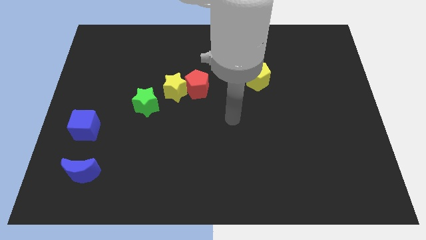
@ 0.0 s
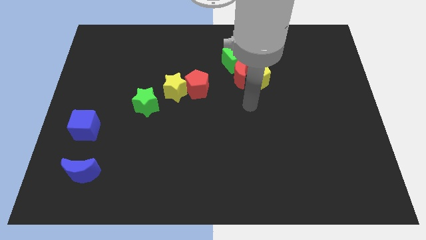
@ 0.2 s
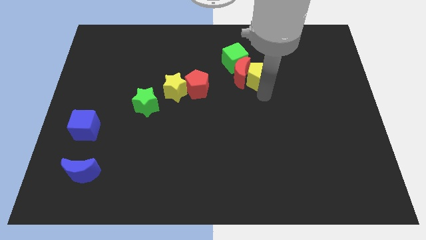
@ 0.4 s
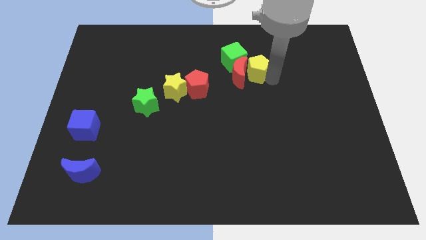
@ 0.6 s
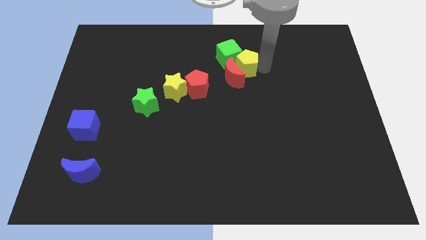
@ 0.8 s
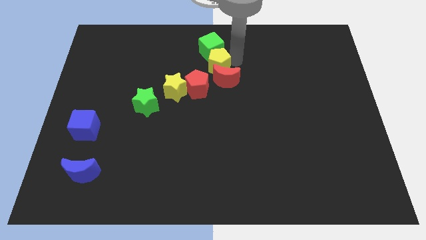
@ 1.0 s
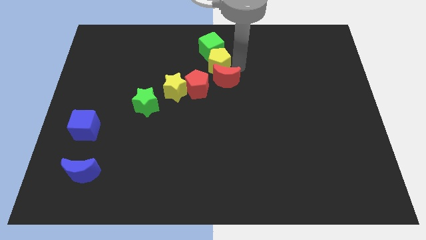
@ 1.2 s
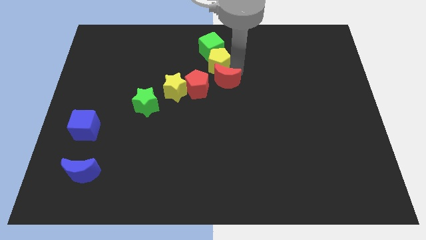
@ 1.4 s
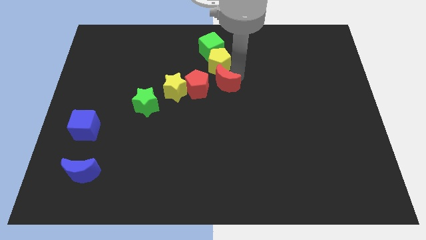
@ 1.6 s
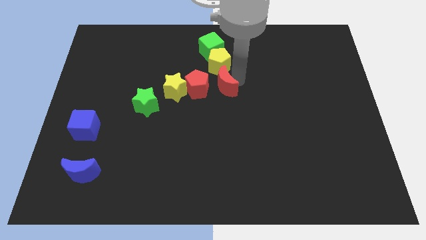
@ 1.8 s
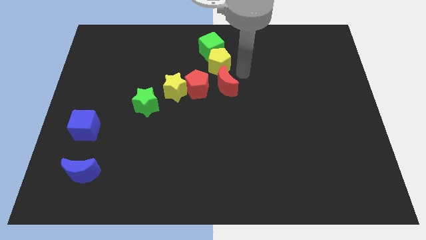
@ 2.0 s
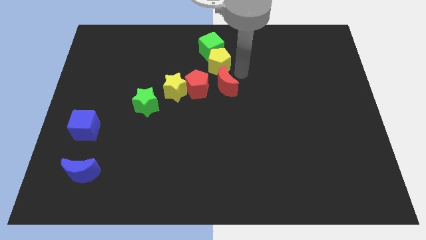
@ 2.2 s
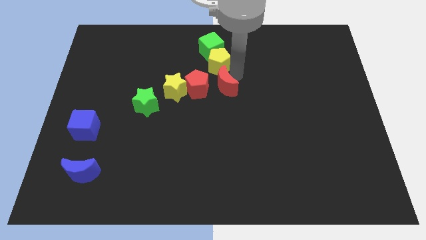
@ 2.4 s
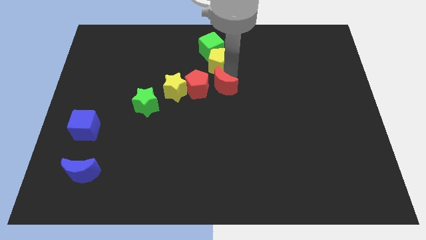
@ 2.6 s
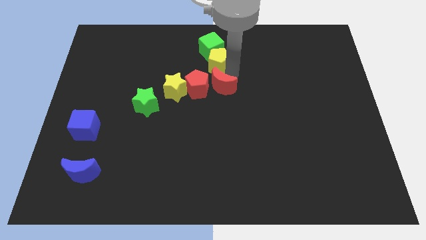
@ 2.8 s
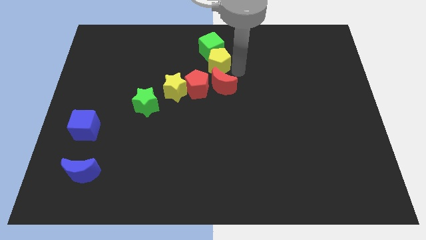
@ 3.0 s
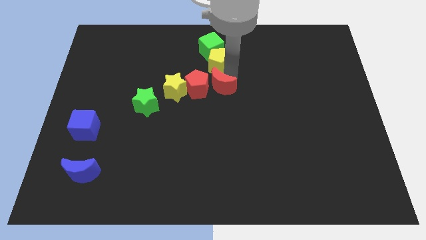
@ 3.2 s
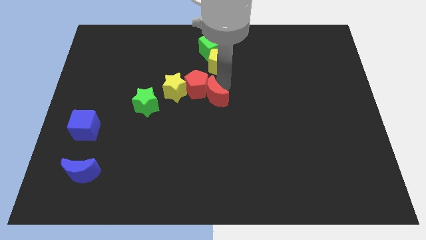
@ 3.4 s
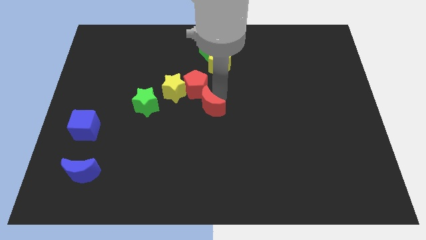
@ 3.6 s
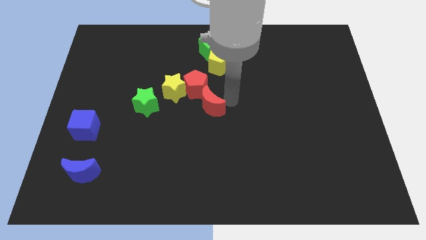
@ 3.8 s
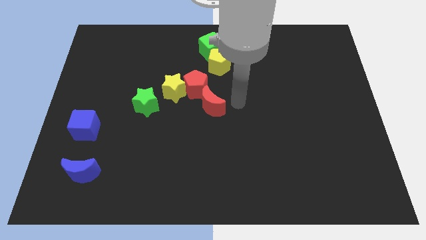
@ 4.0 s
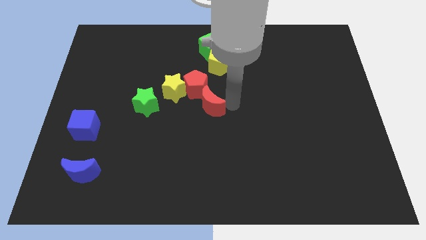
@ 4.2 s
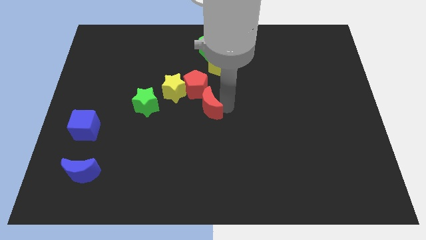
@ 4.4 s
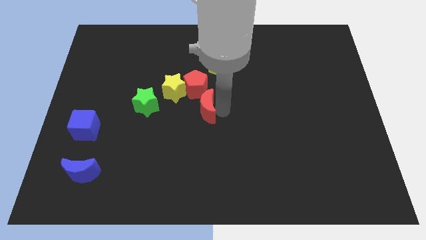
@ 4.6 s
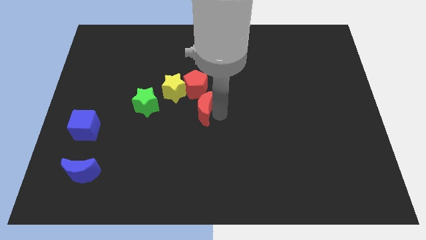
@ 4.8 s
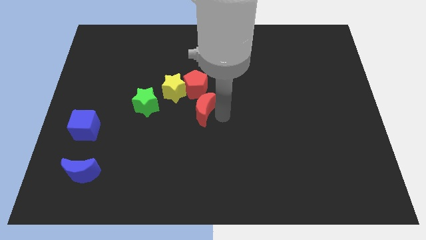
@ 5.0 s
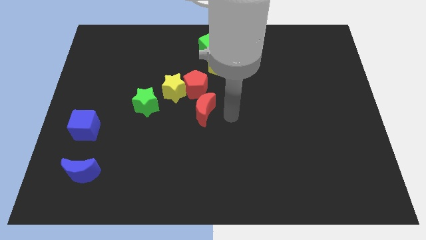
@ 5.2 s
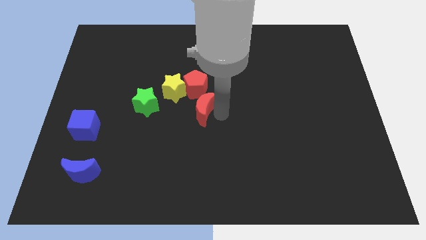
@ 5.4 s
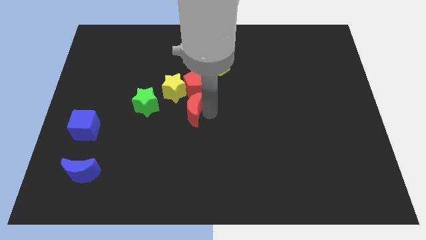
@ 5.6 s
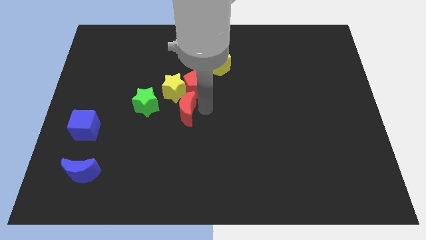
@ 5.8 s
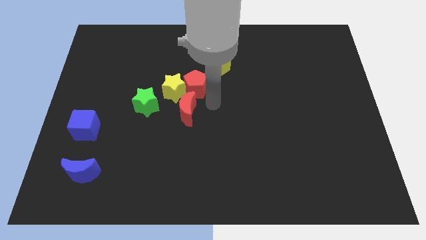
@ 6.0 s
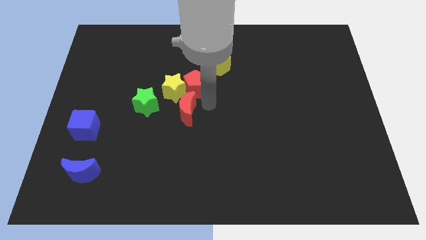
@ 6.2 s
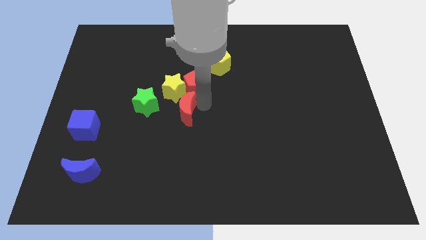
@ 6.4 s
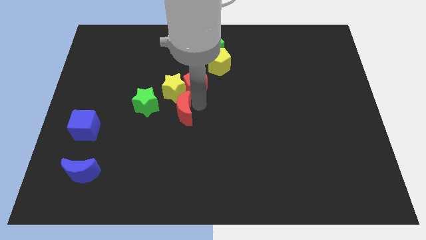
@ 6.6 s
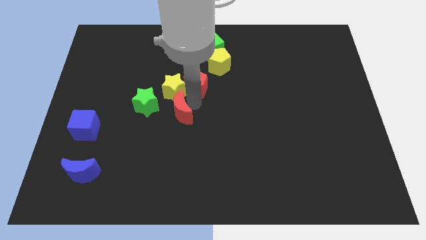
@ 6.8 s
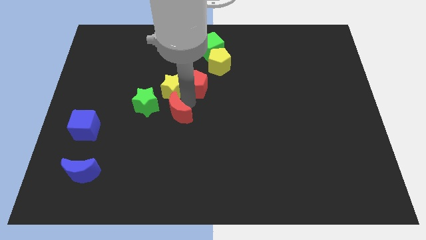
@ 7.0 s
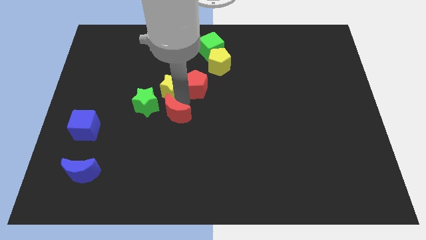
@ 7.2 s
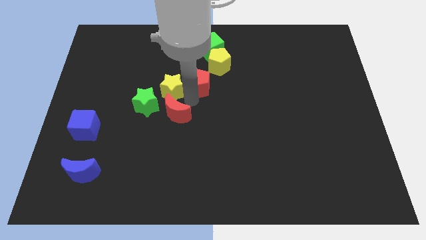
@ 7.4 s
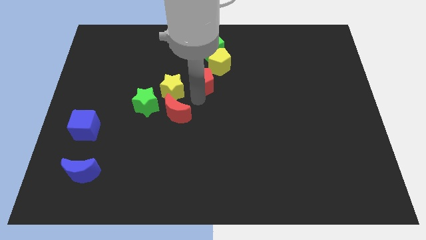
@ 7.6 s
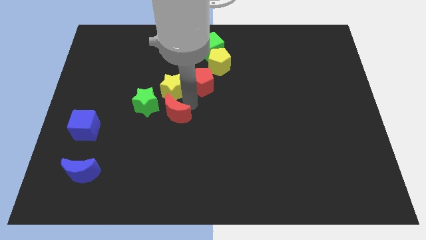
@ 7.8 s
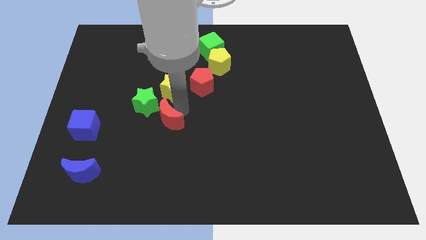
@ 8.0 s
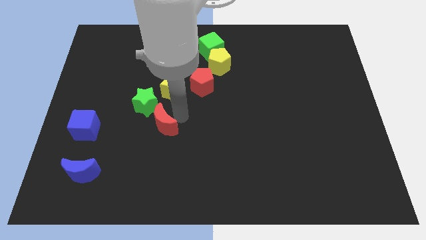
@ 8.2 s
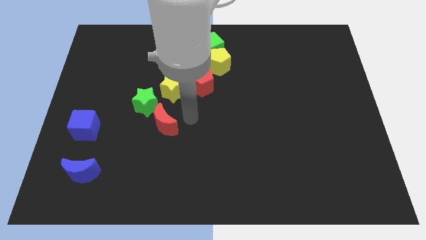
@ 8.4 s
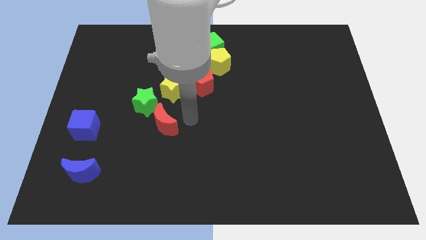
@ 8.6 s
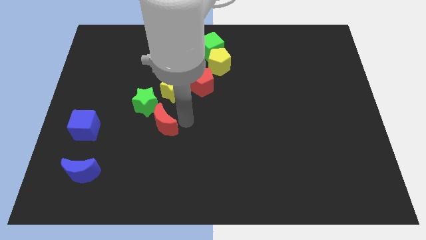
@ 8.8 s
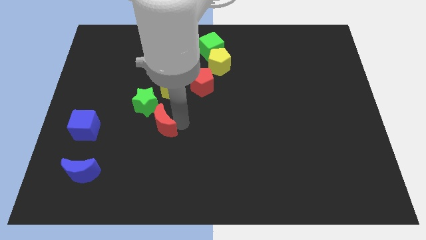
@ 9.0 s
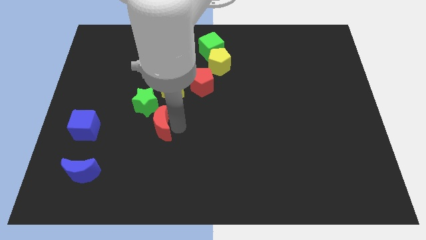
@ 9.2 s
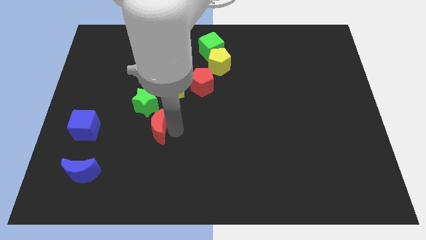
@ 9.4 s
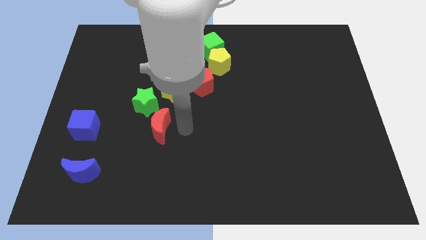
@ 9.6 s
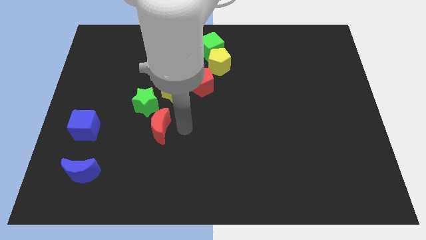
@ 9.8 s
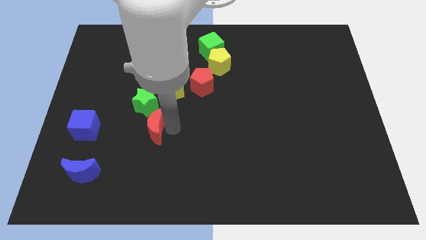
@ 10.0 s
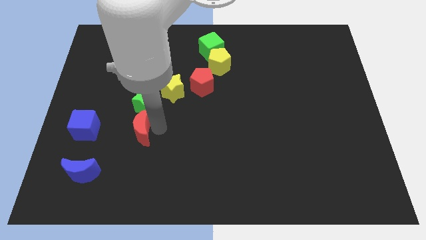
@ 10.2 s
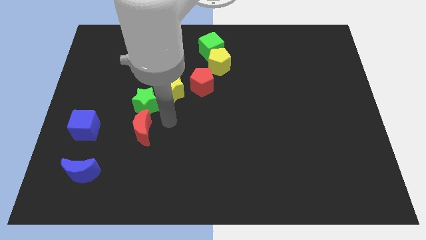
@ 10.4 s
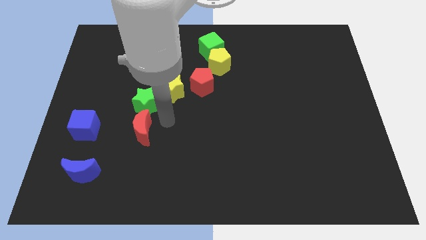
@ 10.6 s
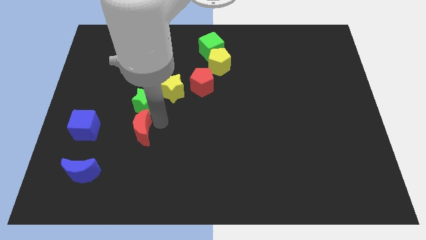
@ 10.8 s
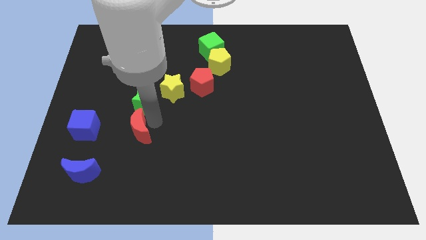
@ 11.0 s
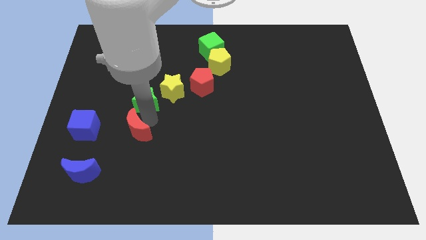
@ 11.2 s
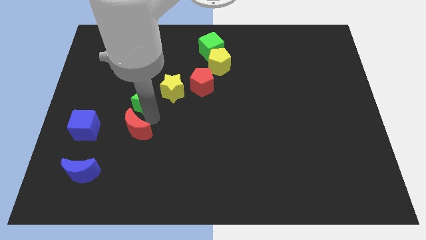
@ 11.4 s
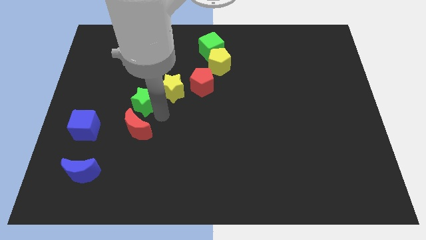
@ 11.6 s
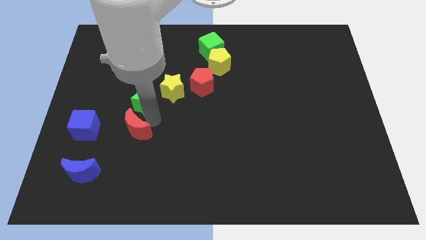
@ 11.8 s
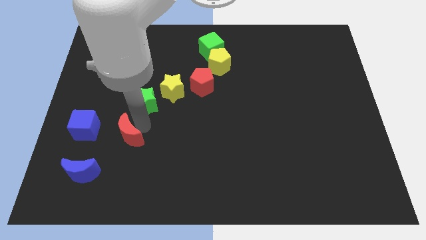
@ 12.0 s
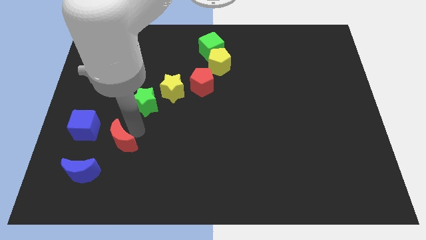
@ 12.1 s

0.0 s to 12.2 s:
push the red moon to the bottom right side of the blue cube

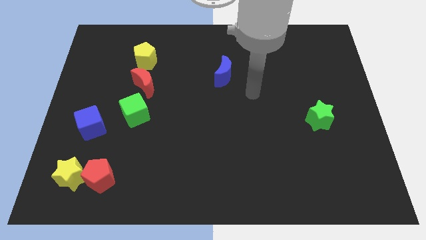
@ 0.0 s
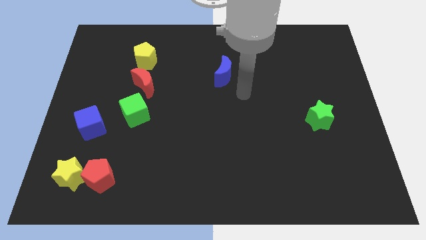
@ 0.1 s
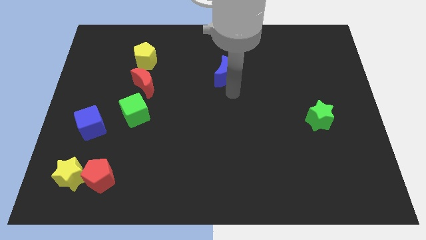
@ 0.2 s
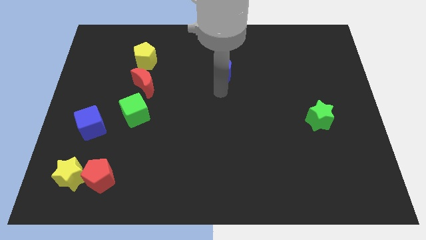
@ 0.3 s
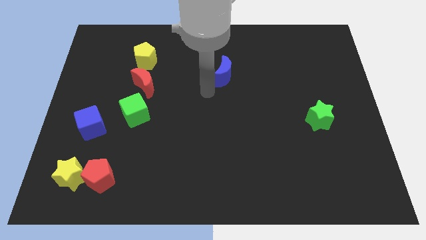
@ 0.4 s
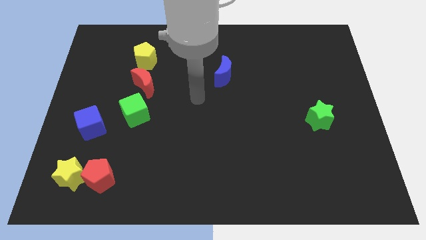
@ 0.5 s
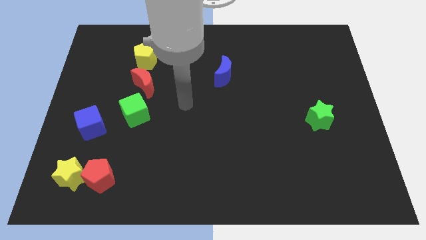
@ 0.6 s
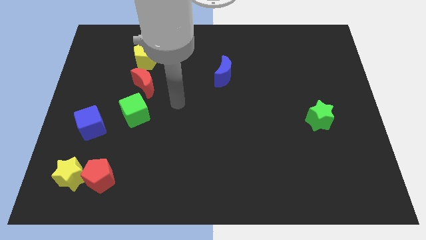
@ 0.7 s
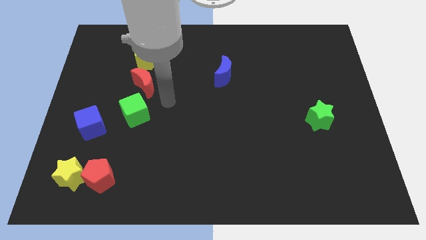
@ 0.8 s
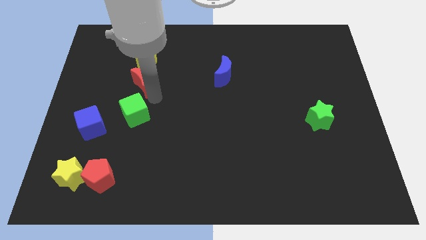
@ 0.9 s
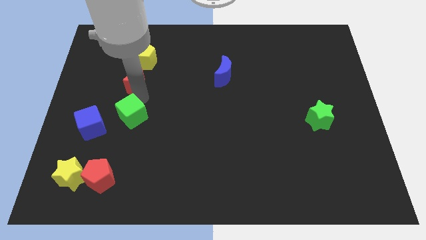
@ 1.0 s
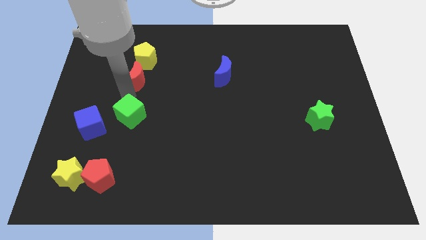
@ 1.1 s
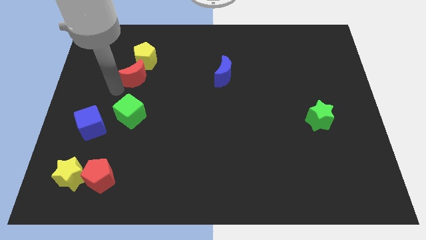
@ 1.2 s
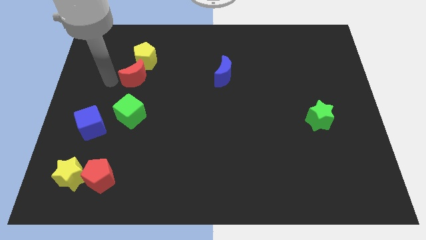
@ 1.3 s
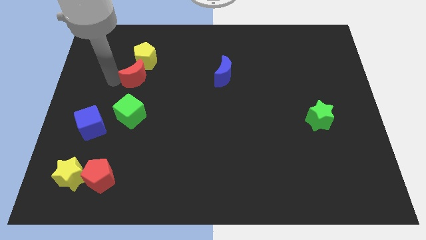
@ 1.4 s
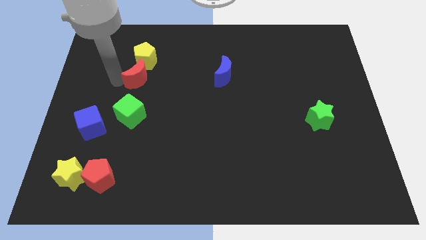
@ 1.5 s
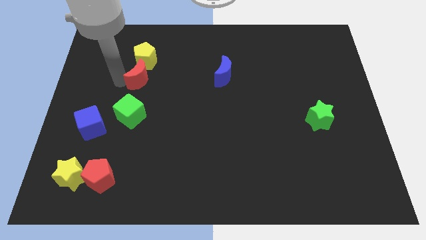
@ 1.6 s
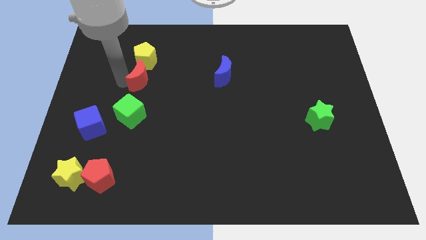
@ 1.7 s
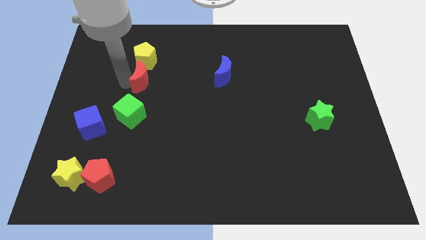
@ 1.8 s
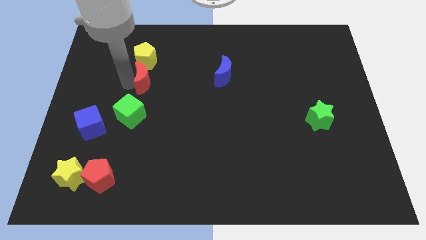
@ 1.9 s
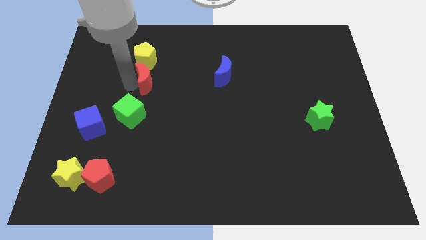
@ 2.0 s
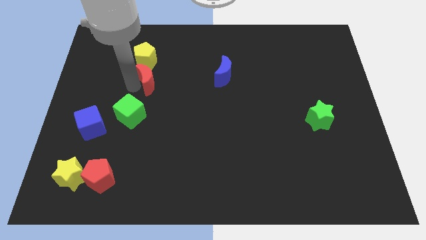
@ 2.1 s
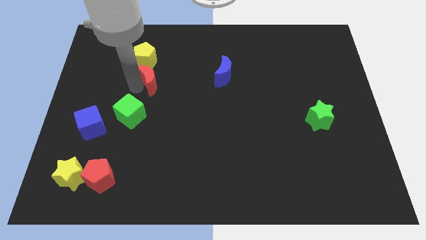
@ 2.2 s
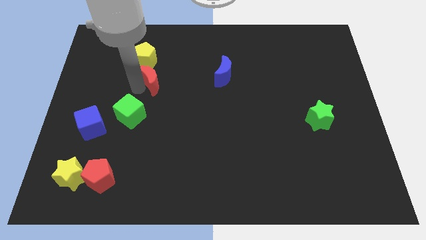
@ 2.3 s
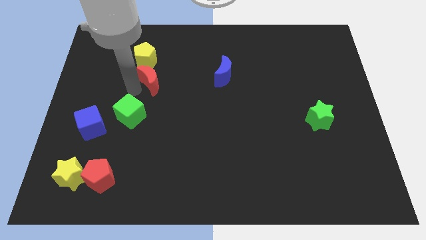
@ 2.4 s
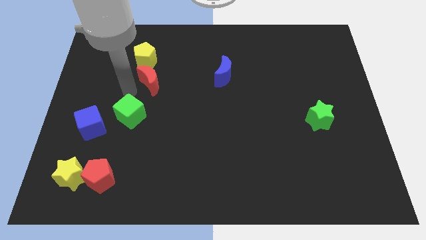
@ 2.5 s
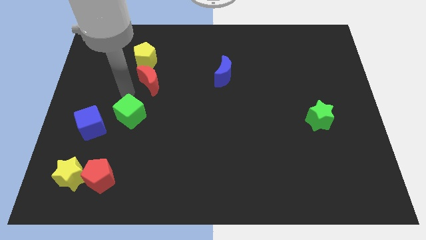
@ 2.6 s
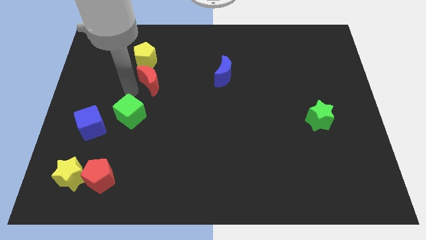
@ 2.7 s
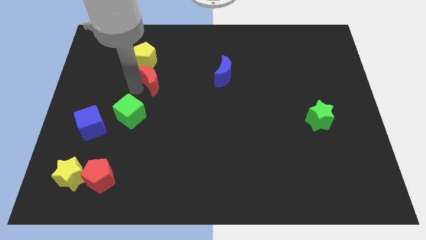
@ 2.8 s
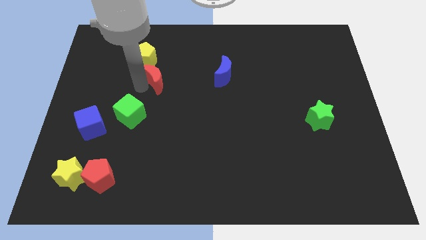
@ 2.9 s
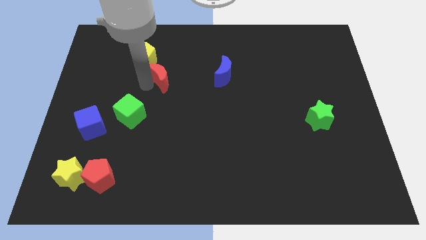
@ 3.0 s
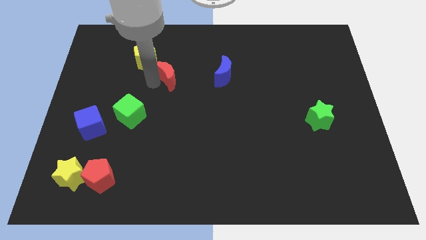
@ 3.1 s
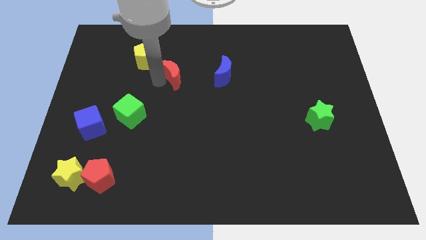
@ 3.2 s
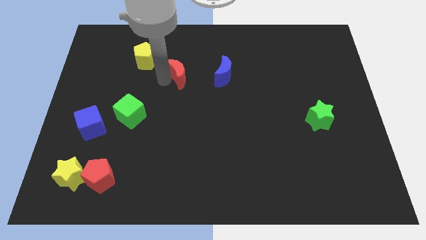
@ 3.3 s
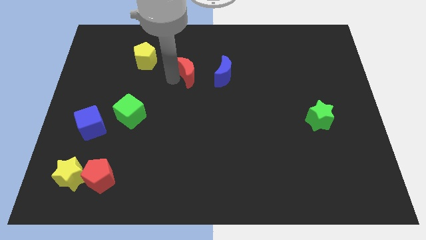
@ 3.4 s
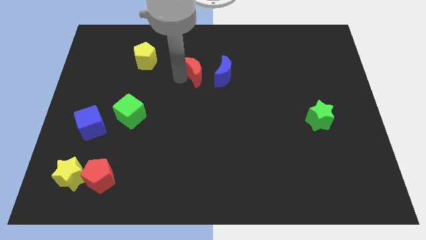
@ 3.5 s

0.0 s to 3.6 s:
slide the red moon to the top left side of the blue moon
